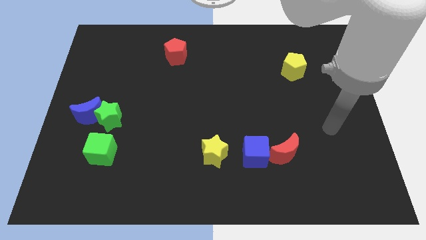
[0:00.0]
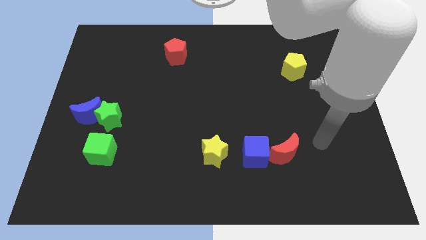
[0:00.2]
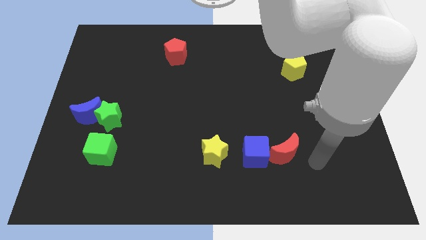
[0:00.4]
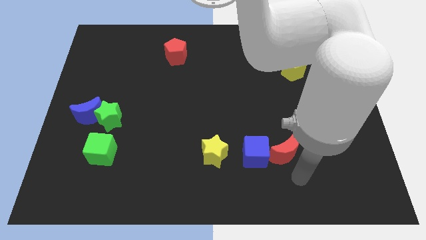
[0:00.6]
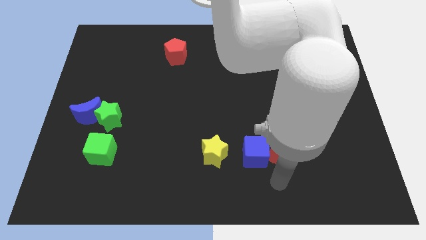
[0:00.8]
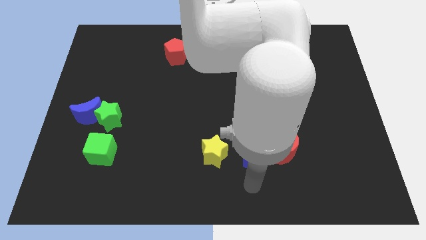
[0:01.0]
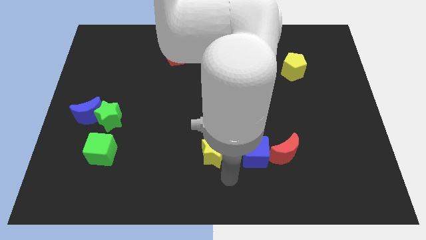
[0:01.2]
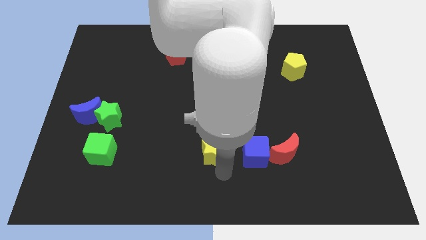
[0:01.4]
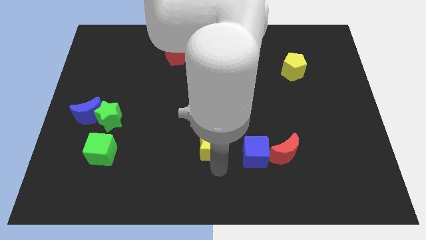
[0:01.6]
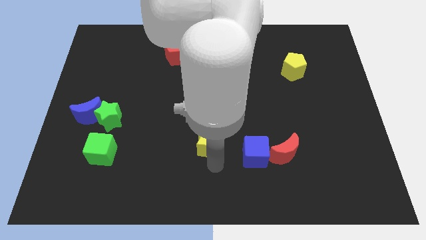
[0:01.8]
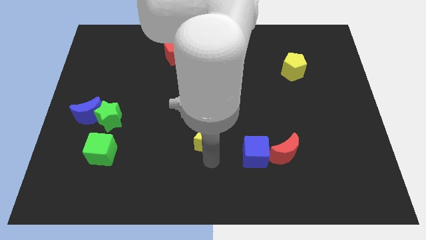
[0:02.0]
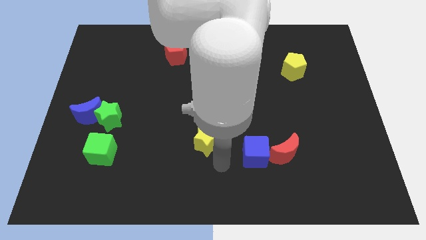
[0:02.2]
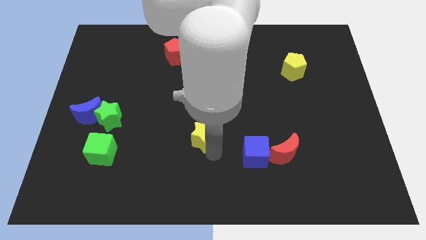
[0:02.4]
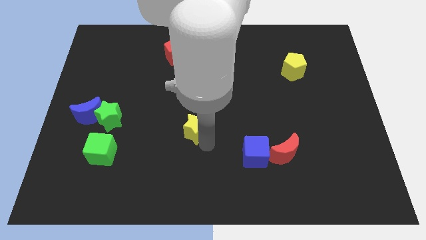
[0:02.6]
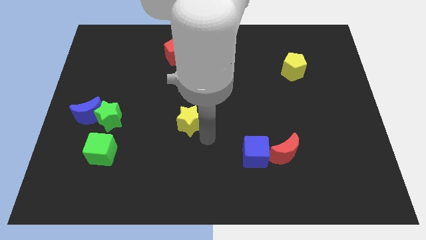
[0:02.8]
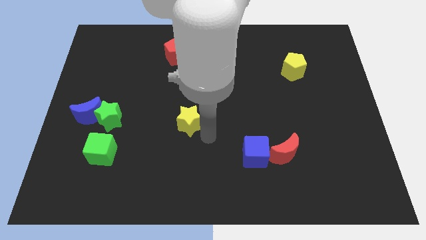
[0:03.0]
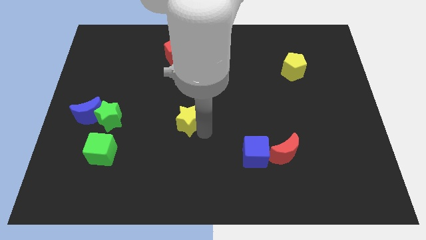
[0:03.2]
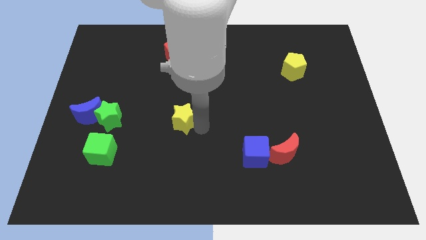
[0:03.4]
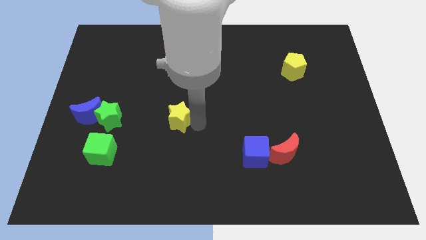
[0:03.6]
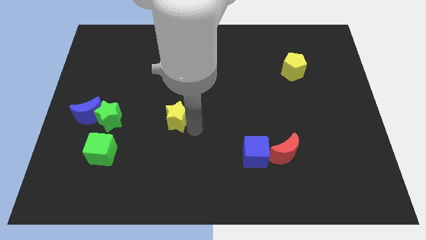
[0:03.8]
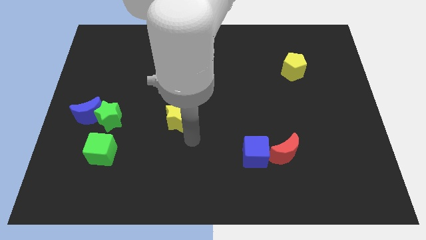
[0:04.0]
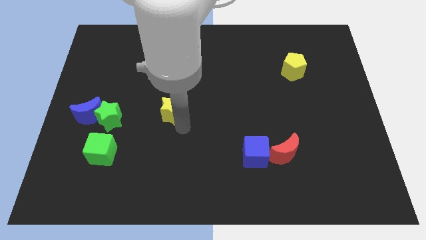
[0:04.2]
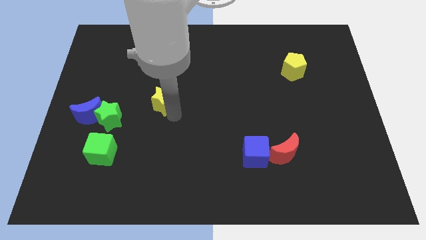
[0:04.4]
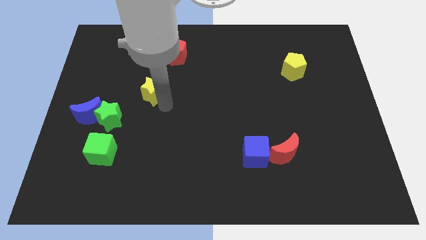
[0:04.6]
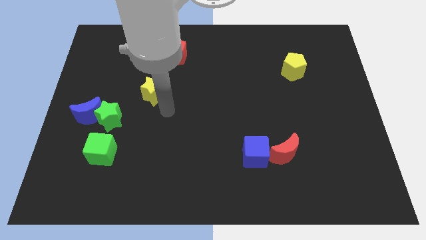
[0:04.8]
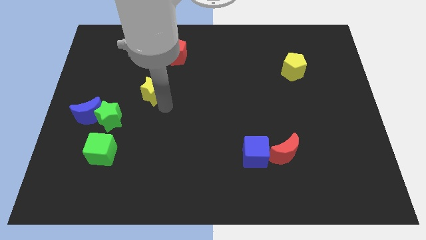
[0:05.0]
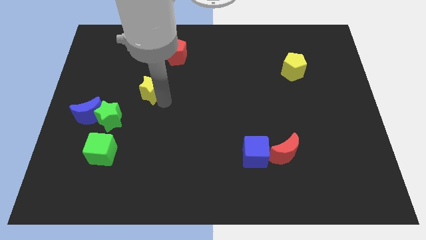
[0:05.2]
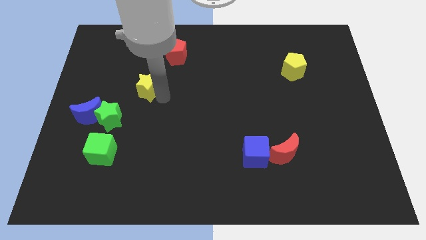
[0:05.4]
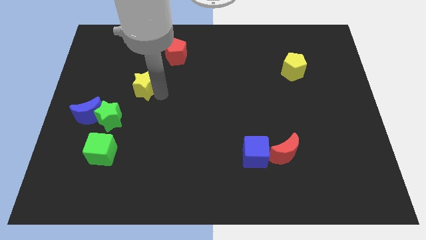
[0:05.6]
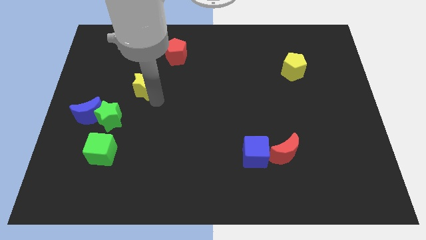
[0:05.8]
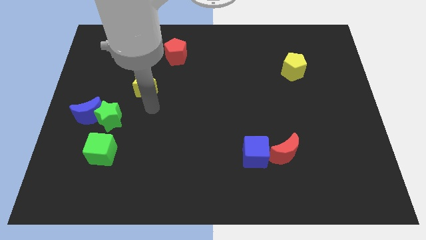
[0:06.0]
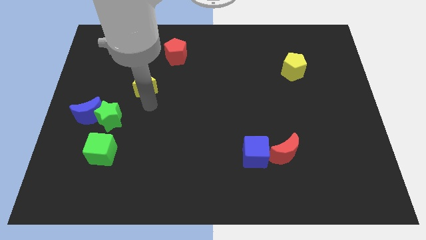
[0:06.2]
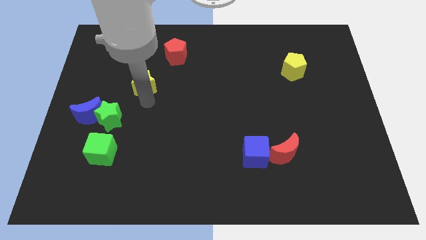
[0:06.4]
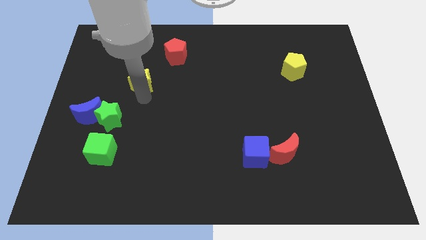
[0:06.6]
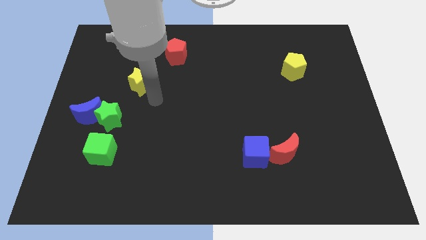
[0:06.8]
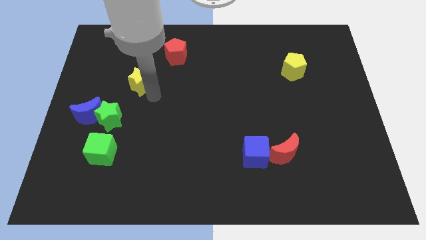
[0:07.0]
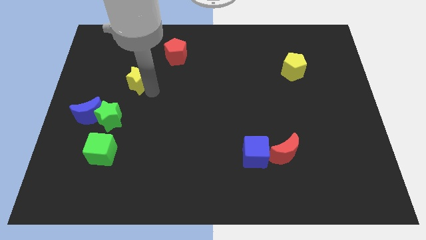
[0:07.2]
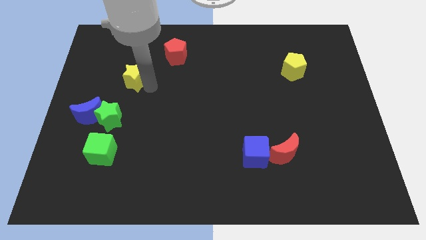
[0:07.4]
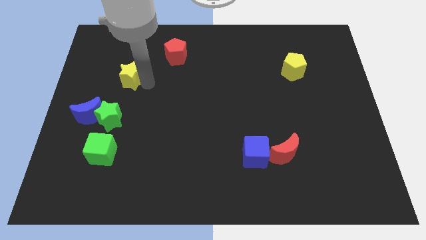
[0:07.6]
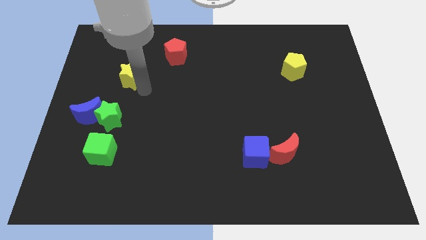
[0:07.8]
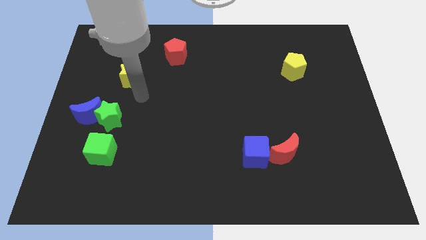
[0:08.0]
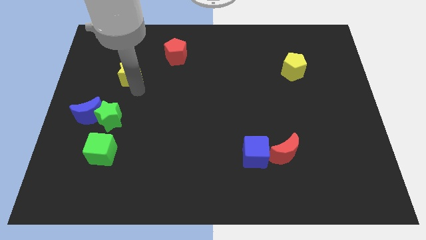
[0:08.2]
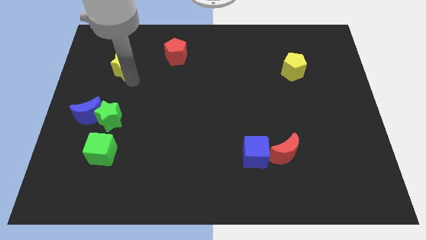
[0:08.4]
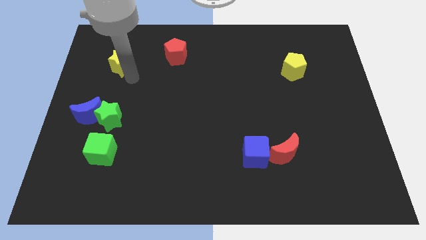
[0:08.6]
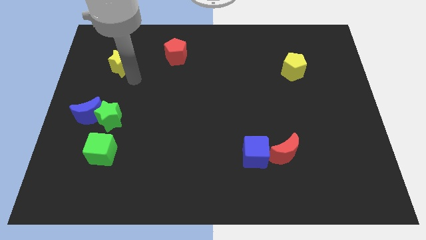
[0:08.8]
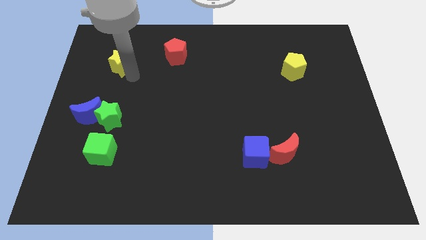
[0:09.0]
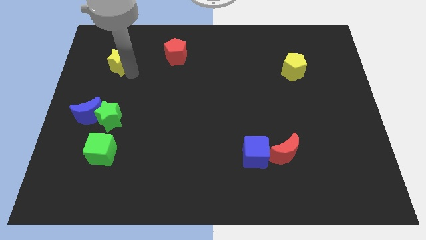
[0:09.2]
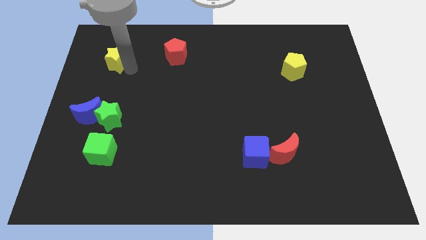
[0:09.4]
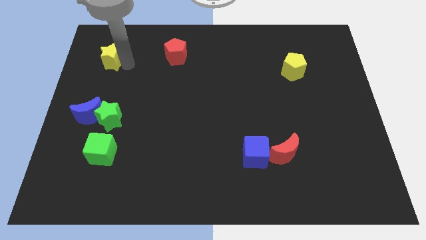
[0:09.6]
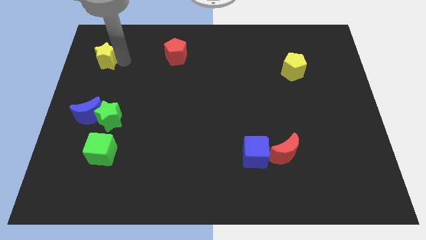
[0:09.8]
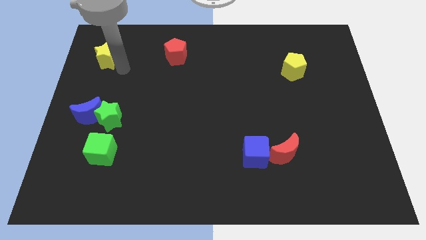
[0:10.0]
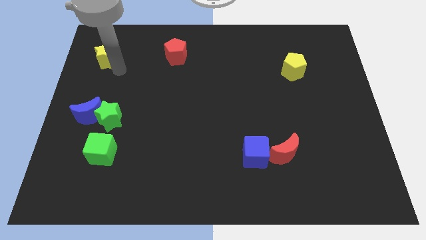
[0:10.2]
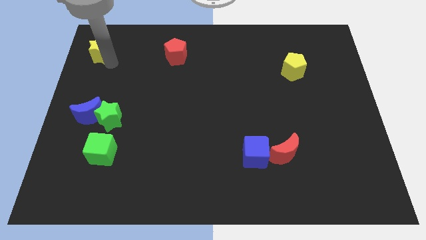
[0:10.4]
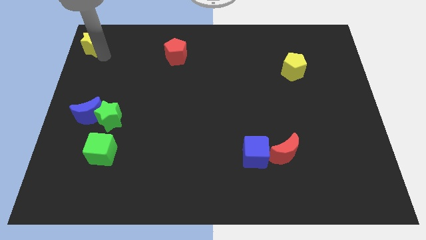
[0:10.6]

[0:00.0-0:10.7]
put the yellow star to the upper left corner
